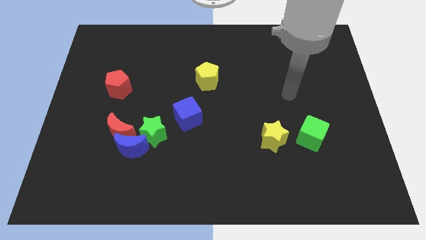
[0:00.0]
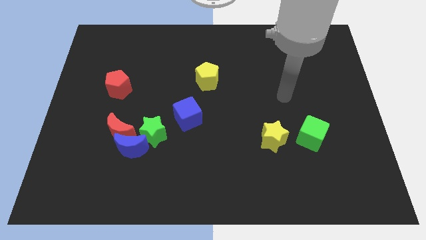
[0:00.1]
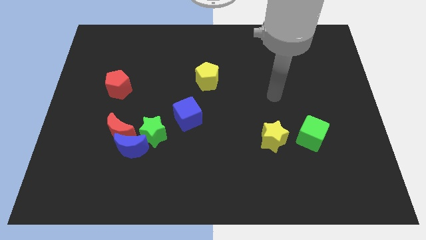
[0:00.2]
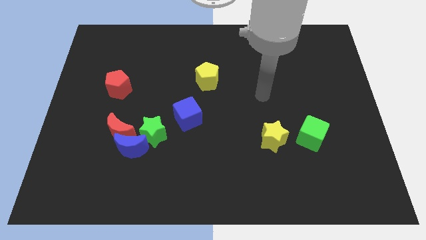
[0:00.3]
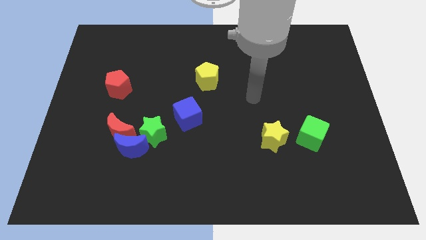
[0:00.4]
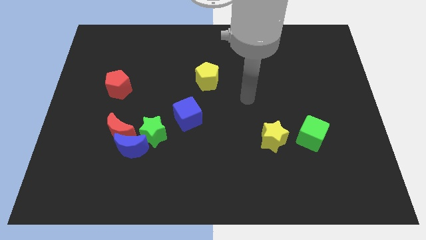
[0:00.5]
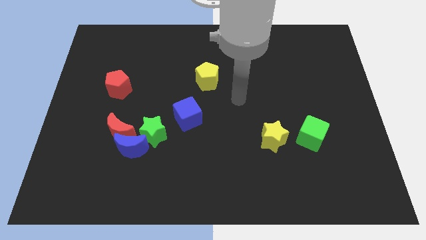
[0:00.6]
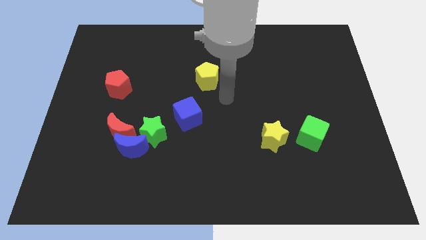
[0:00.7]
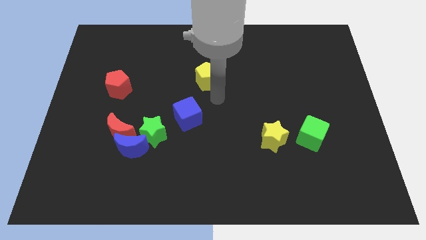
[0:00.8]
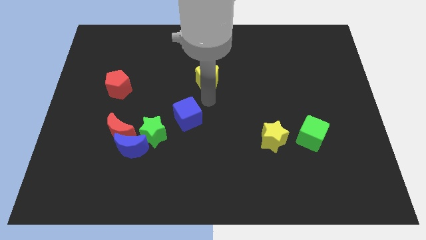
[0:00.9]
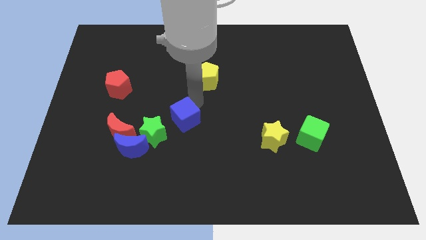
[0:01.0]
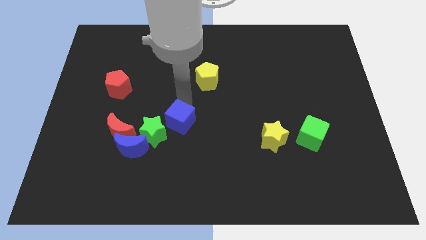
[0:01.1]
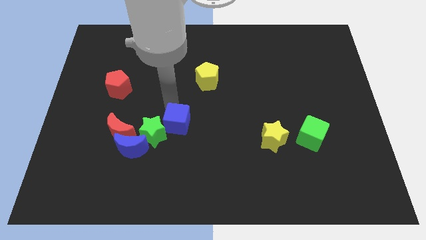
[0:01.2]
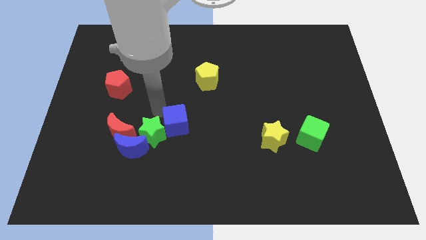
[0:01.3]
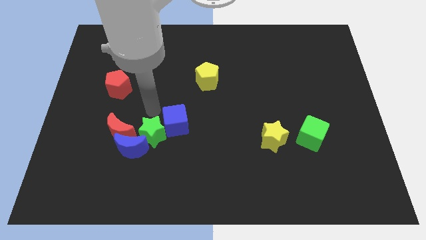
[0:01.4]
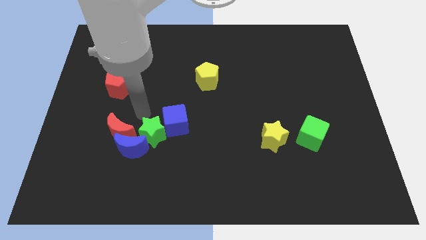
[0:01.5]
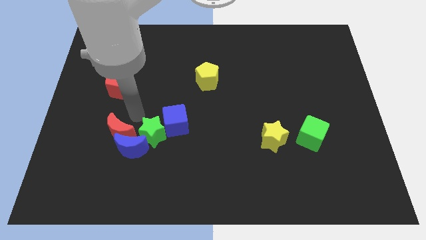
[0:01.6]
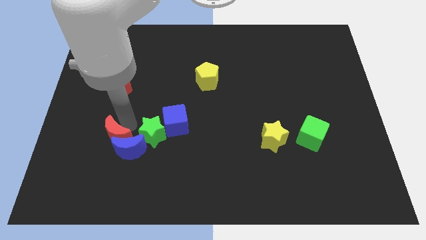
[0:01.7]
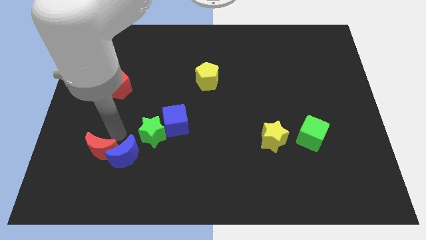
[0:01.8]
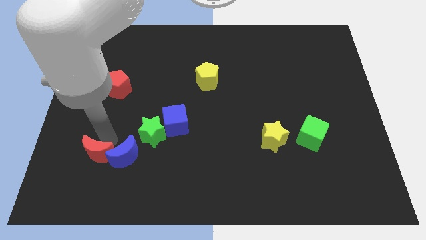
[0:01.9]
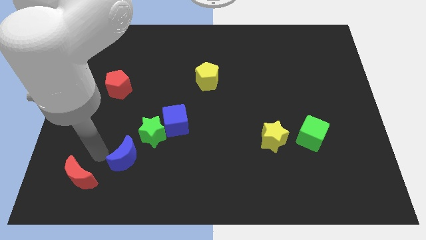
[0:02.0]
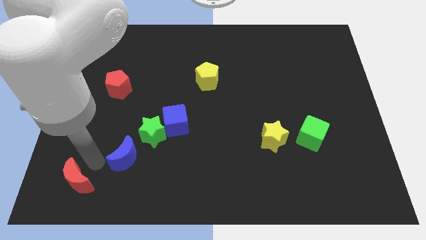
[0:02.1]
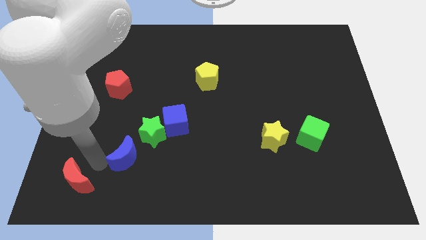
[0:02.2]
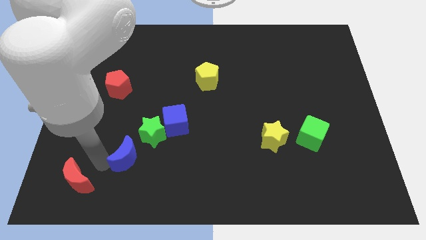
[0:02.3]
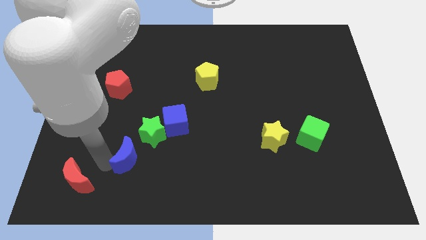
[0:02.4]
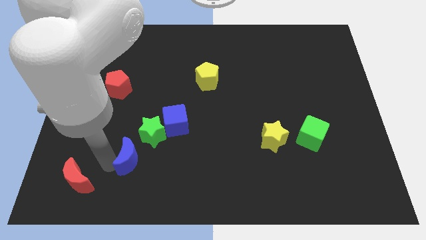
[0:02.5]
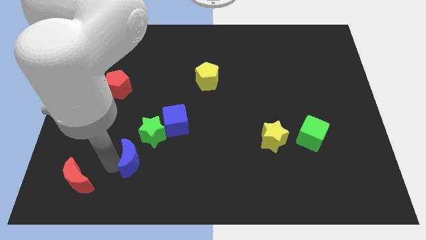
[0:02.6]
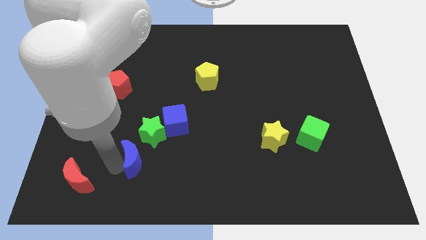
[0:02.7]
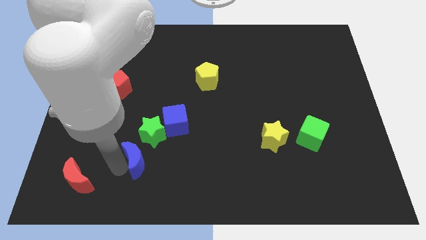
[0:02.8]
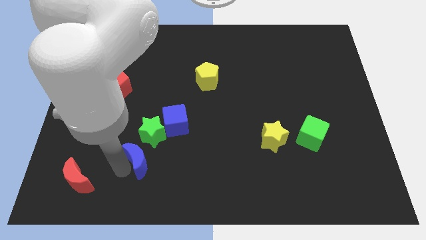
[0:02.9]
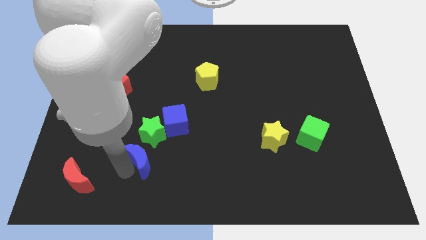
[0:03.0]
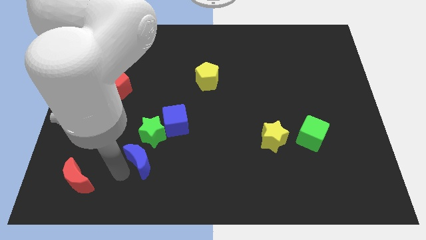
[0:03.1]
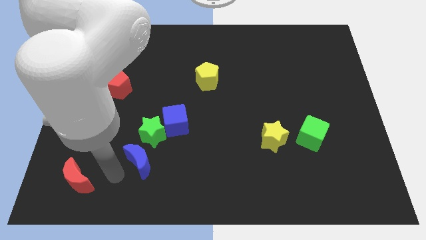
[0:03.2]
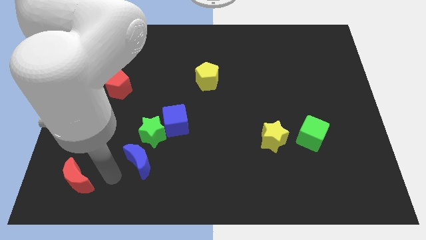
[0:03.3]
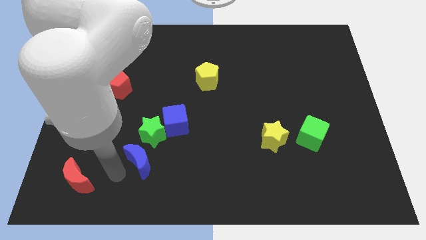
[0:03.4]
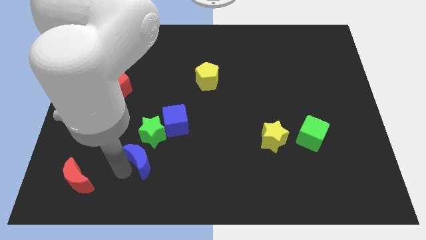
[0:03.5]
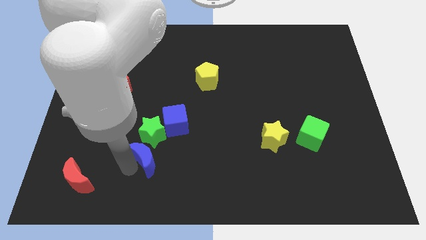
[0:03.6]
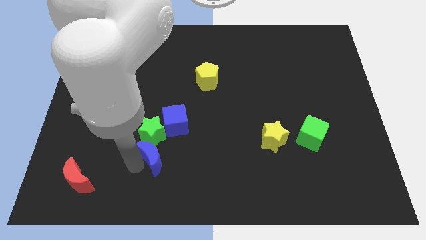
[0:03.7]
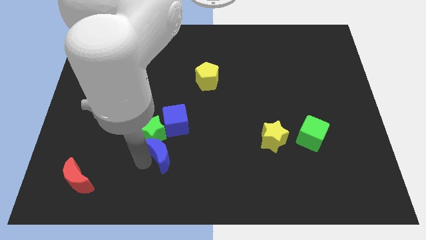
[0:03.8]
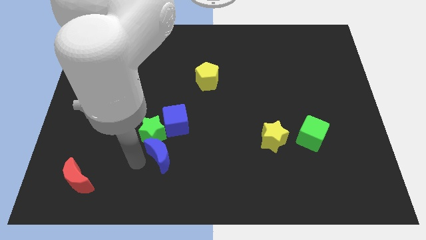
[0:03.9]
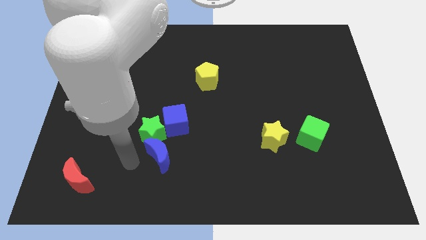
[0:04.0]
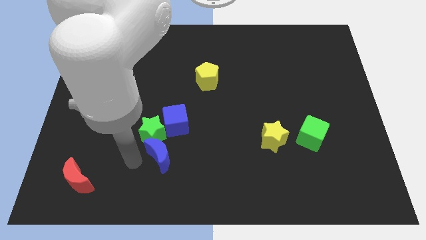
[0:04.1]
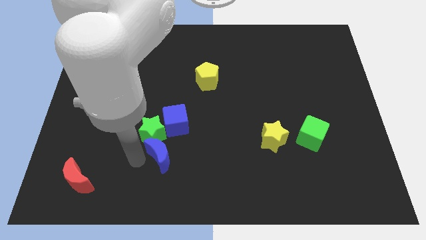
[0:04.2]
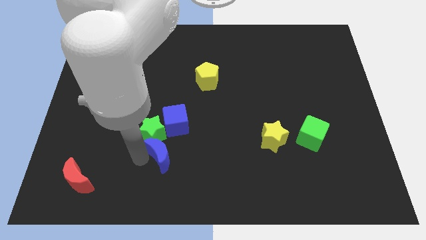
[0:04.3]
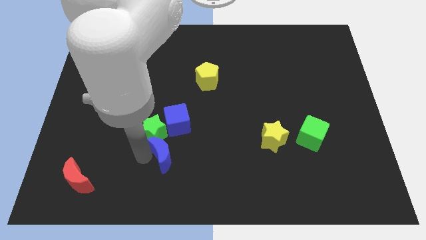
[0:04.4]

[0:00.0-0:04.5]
push the blue moon a little bit to the right

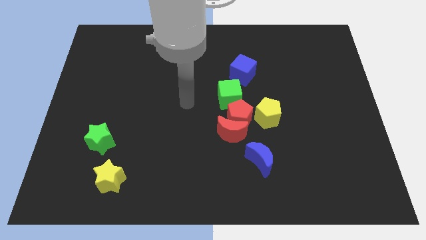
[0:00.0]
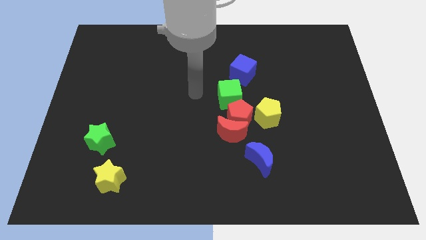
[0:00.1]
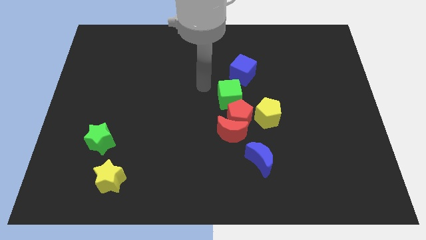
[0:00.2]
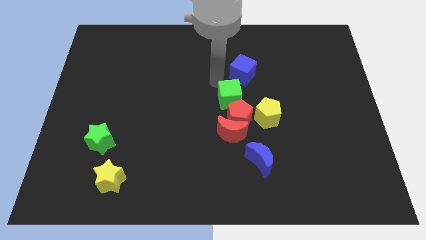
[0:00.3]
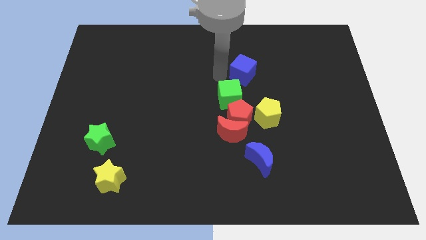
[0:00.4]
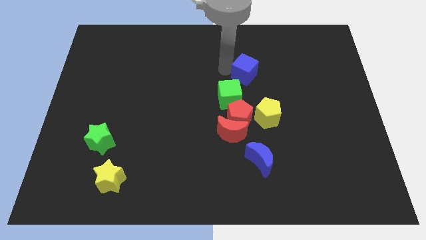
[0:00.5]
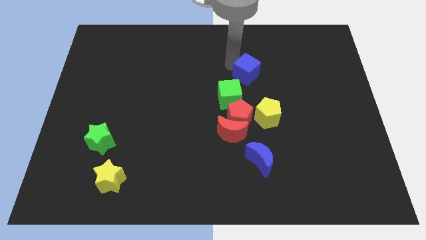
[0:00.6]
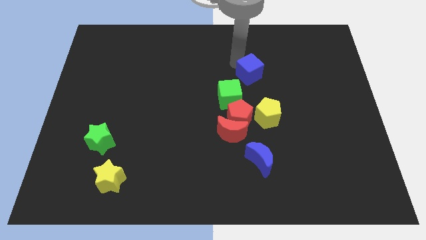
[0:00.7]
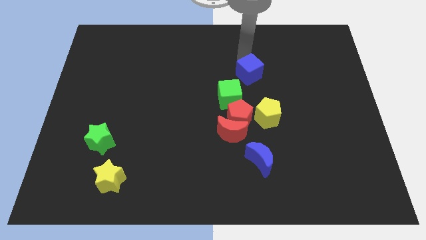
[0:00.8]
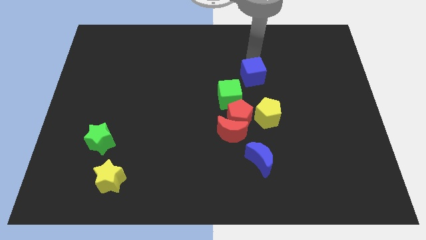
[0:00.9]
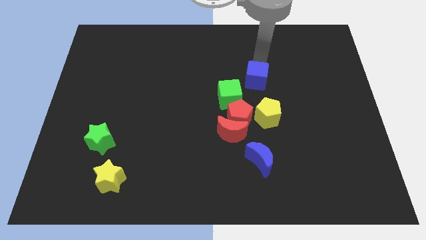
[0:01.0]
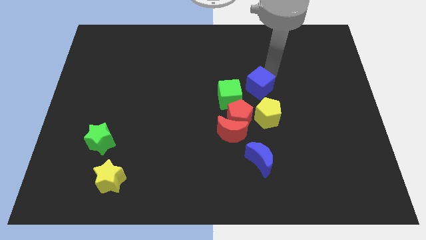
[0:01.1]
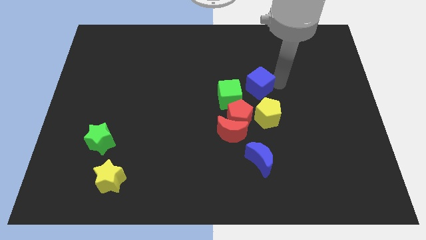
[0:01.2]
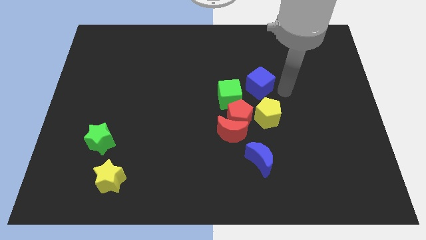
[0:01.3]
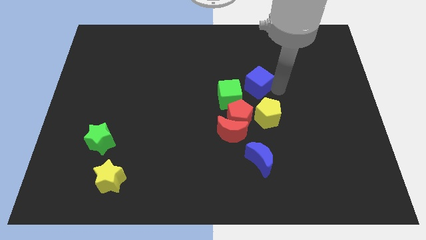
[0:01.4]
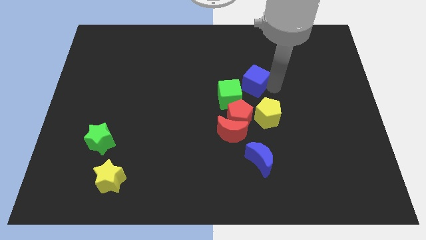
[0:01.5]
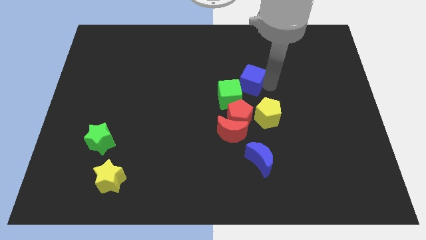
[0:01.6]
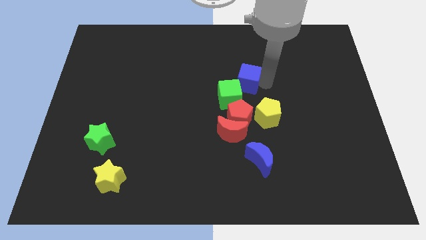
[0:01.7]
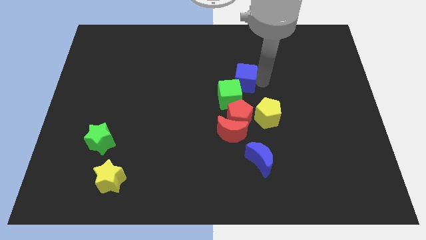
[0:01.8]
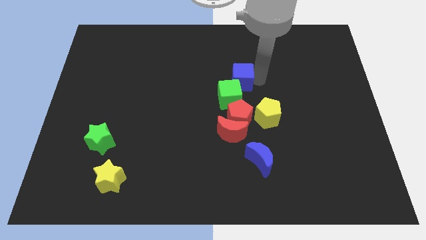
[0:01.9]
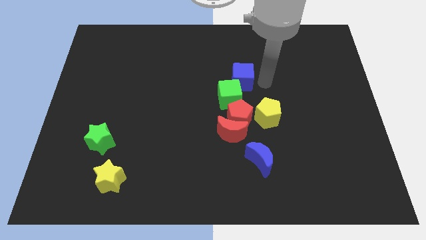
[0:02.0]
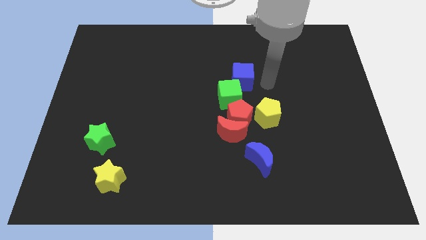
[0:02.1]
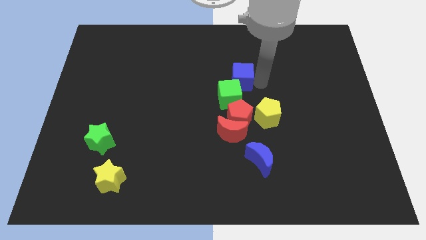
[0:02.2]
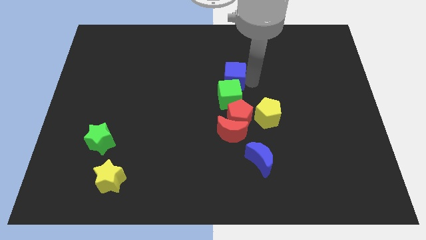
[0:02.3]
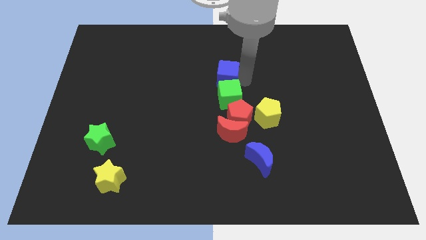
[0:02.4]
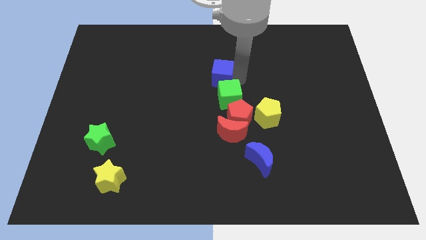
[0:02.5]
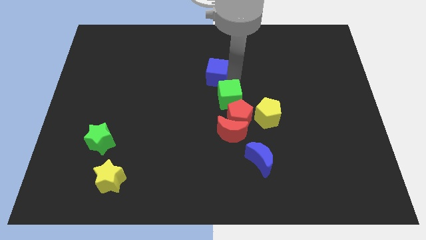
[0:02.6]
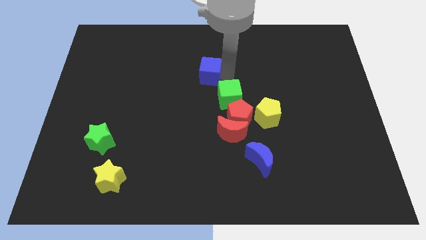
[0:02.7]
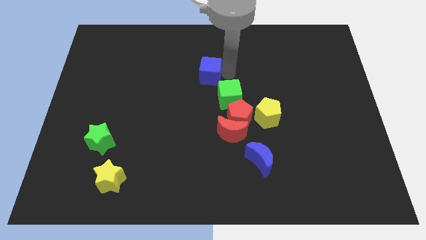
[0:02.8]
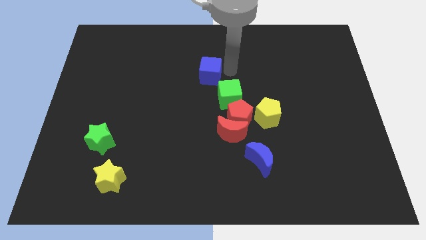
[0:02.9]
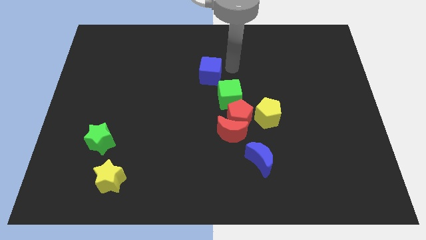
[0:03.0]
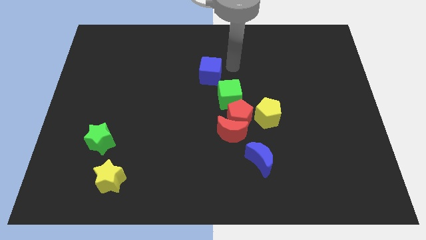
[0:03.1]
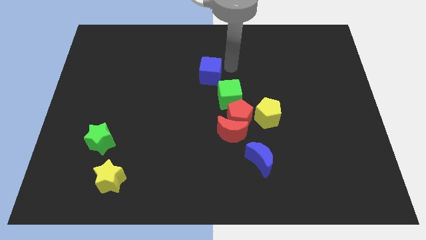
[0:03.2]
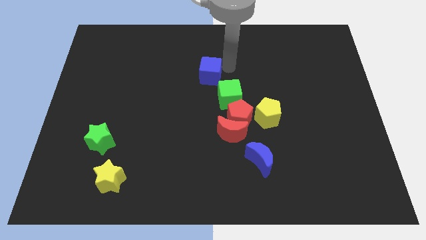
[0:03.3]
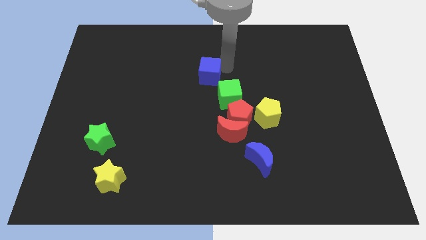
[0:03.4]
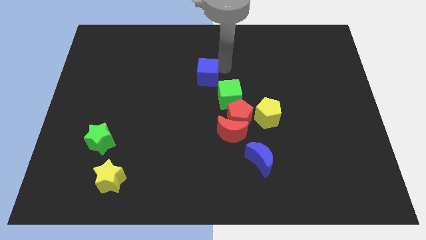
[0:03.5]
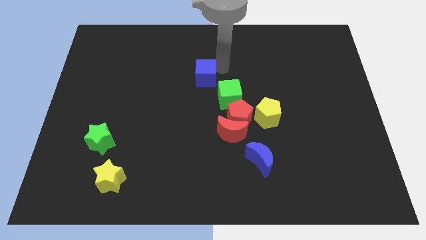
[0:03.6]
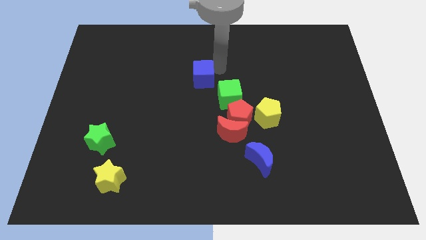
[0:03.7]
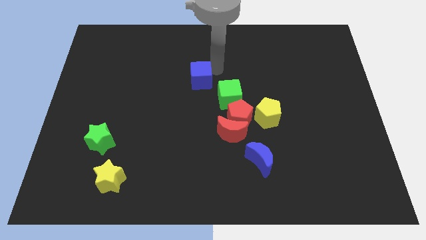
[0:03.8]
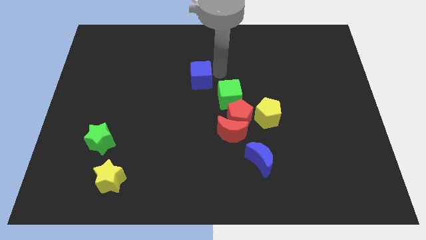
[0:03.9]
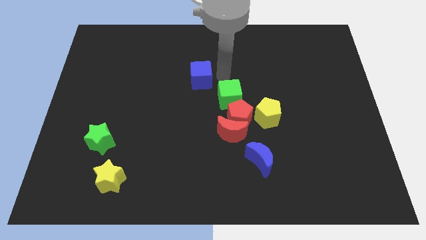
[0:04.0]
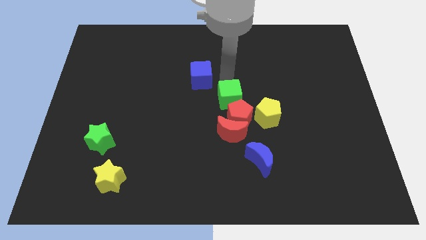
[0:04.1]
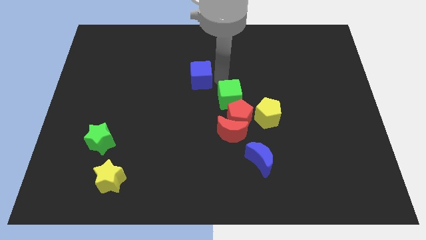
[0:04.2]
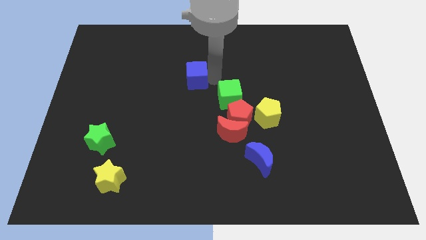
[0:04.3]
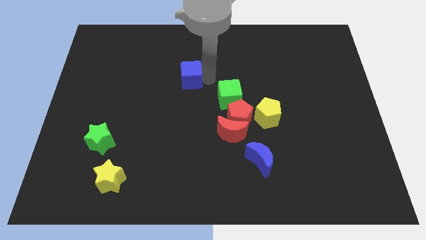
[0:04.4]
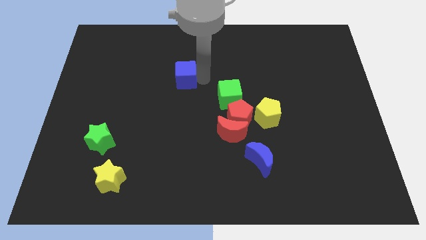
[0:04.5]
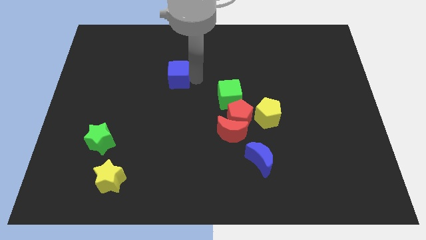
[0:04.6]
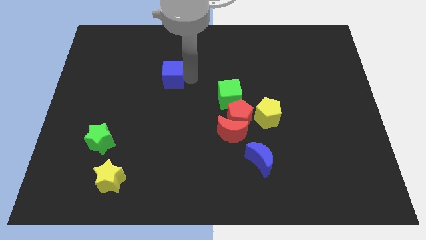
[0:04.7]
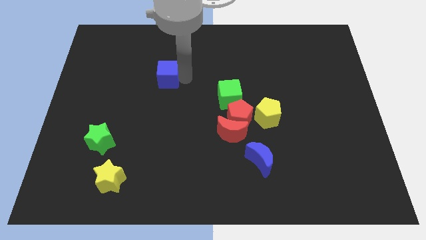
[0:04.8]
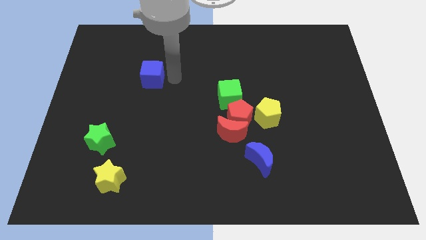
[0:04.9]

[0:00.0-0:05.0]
move the blue cube to the left
